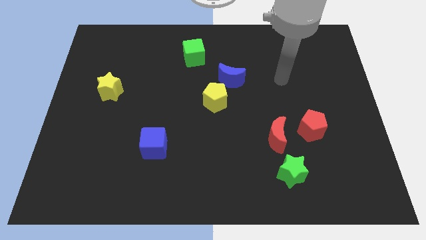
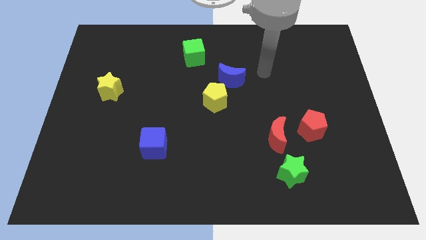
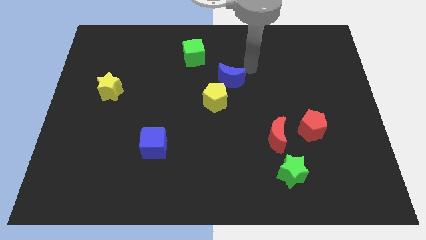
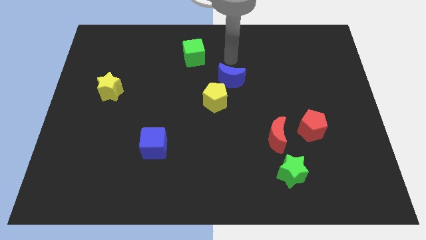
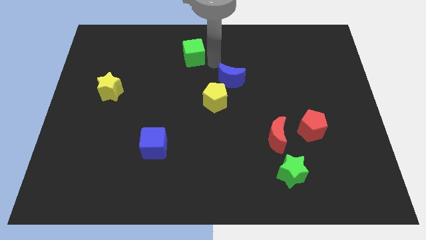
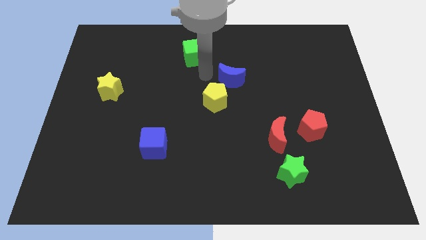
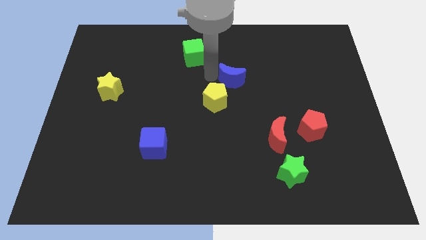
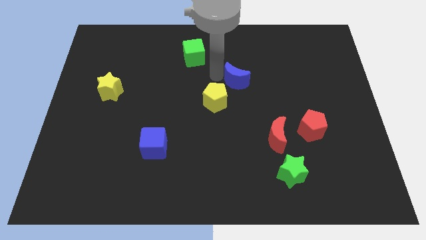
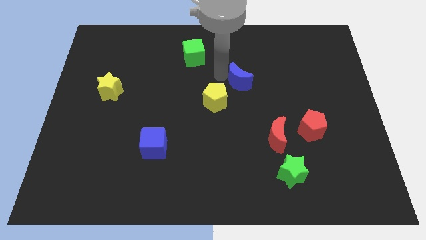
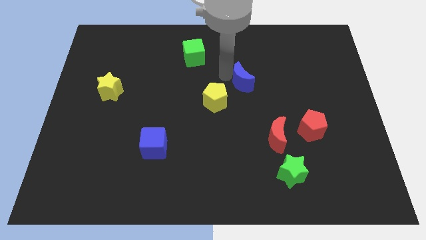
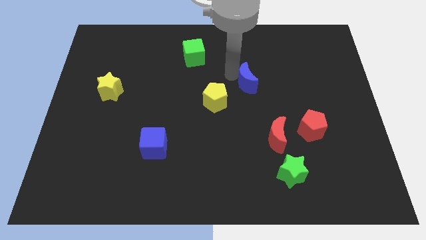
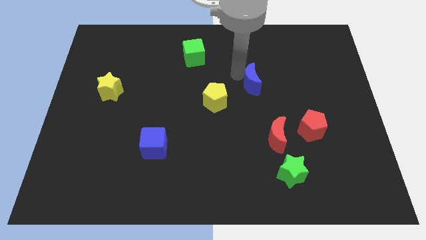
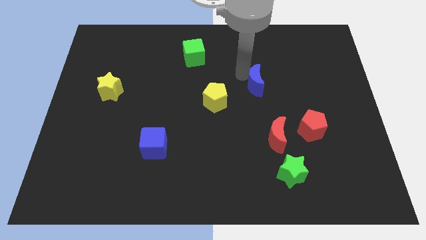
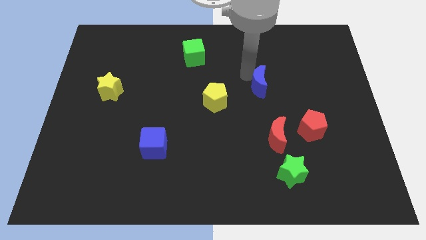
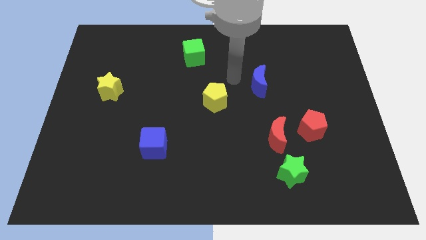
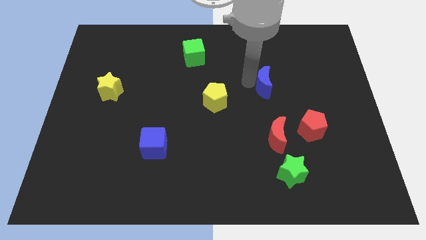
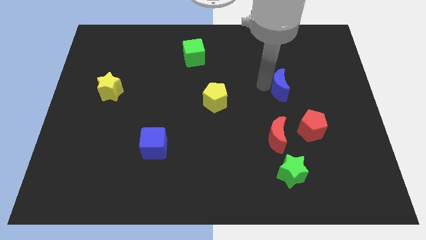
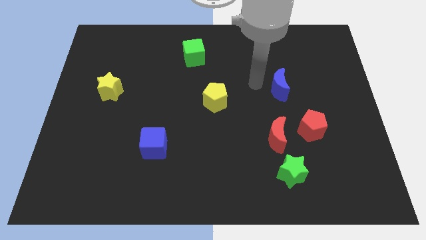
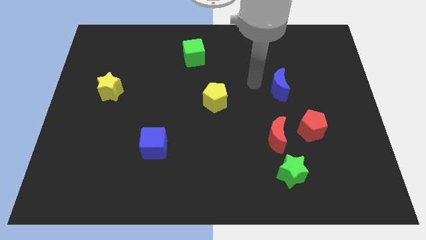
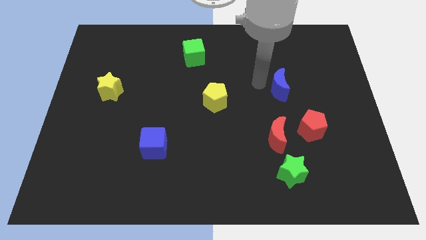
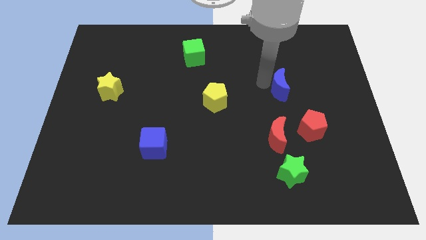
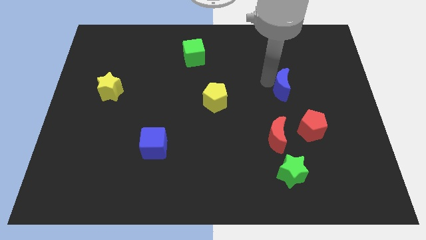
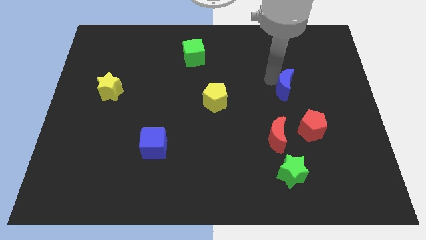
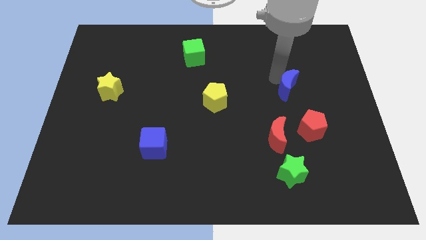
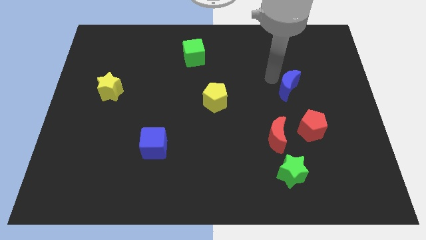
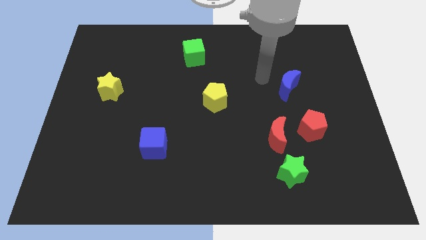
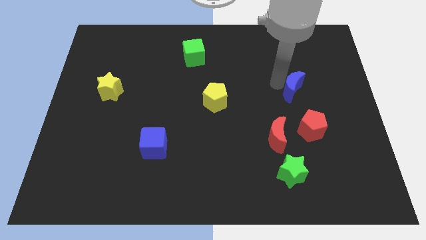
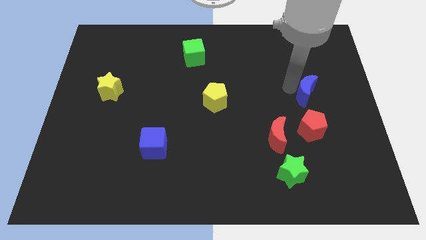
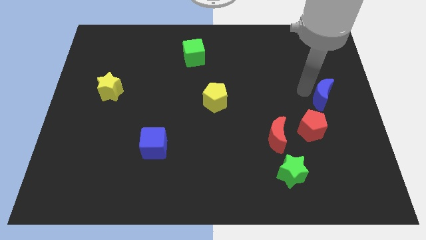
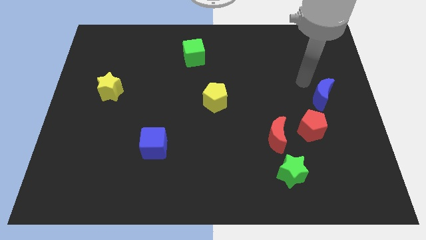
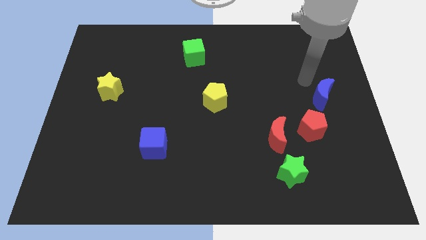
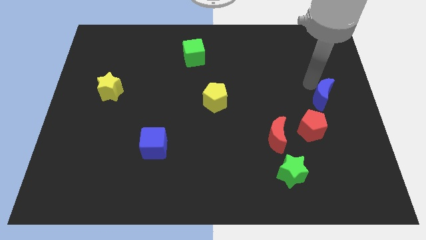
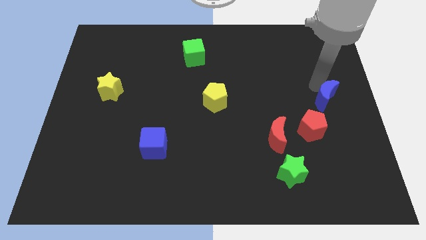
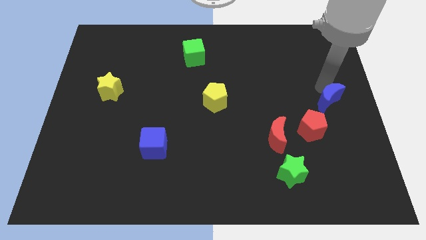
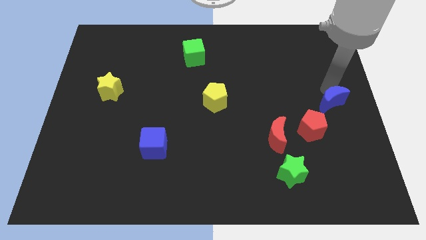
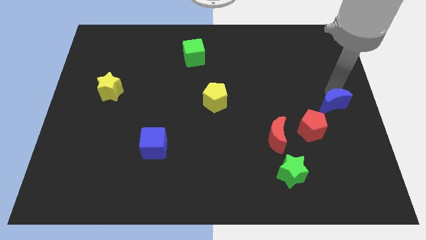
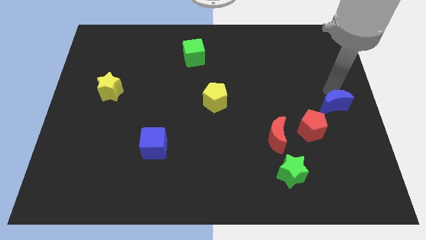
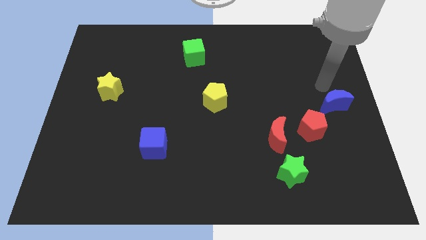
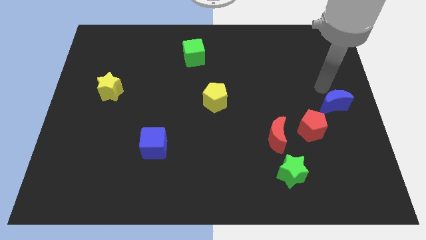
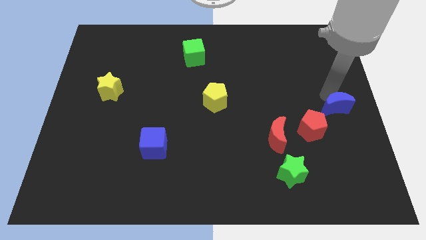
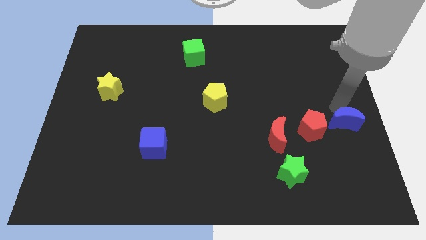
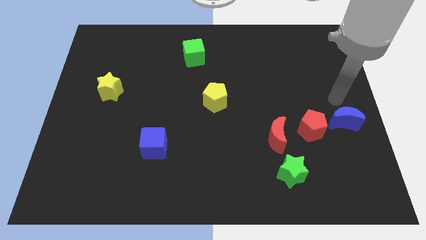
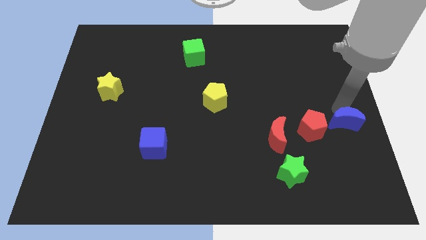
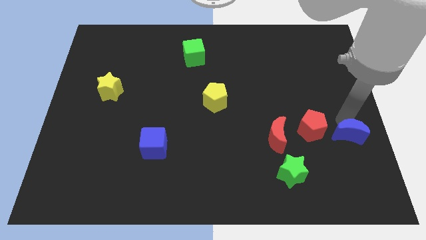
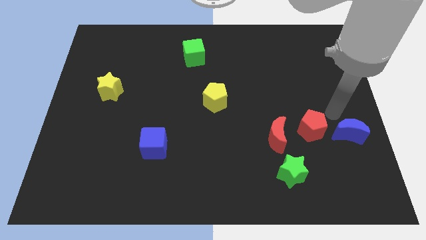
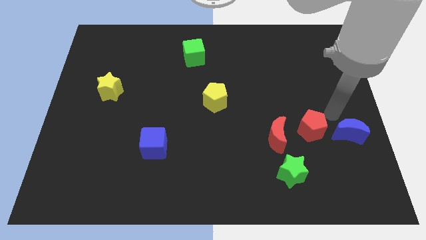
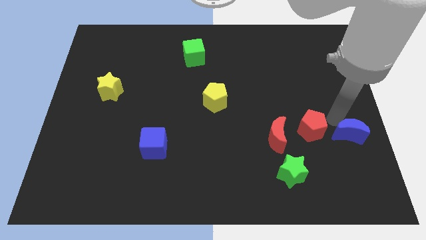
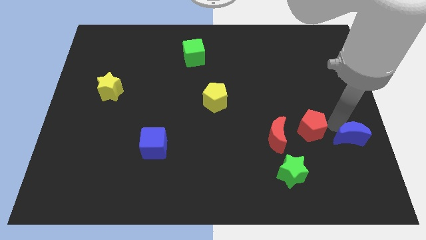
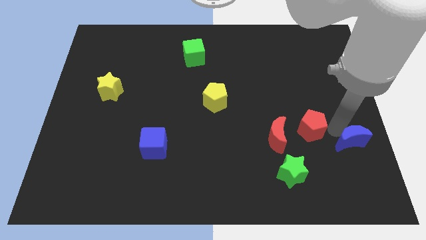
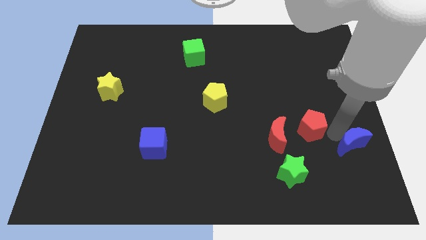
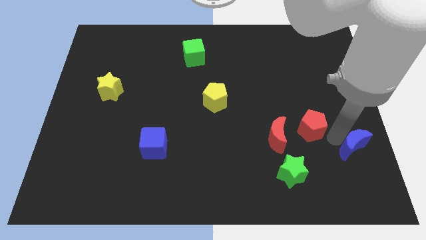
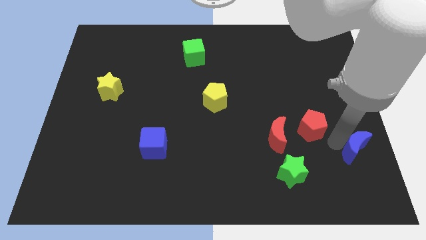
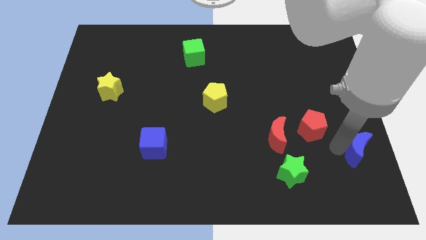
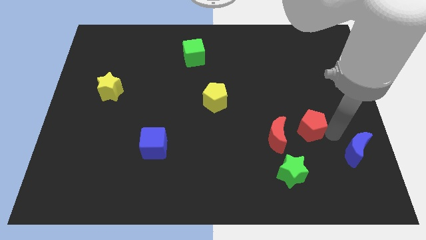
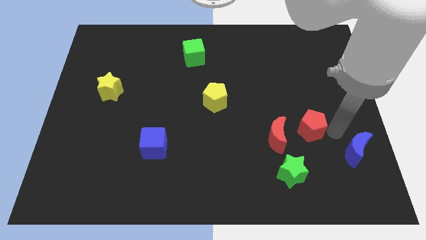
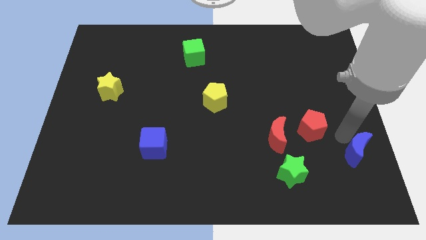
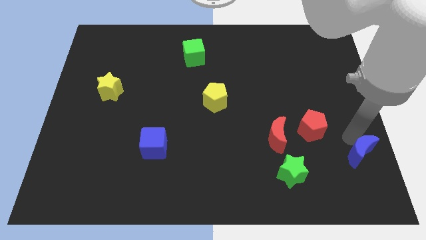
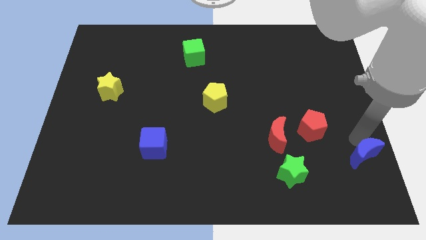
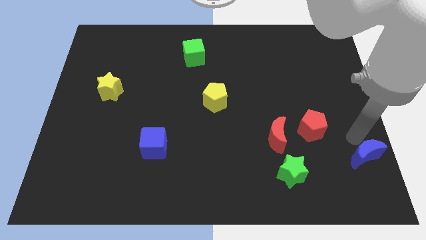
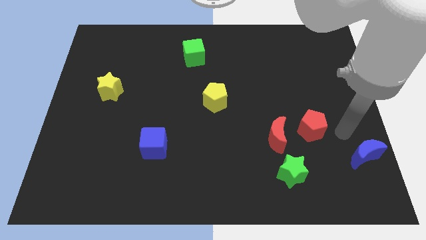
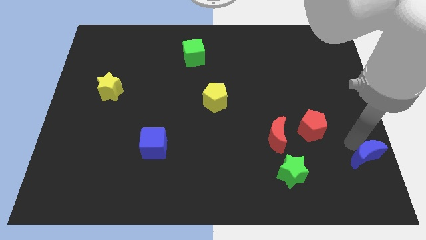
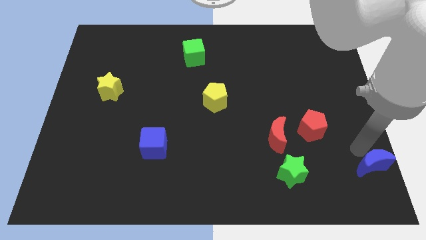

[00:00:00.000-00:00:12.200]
push the blue moon to the bottom right of the board
